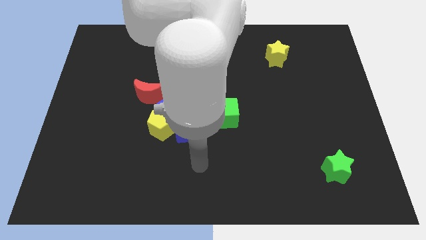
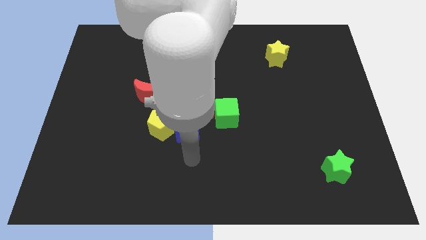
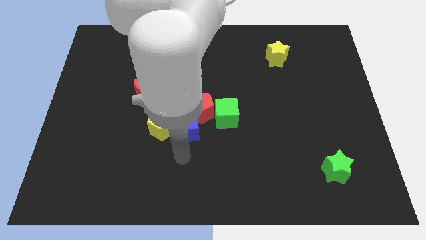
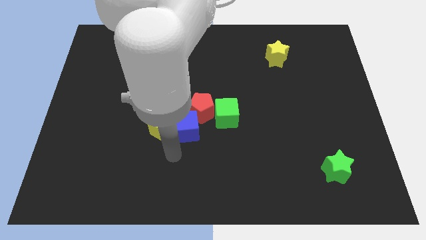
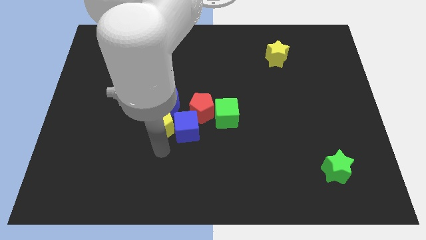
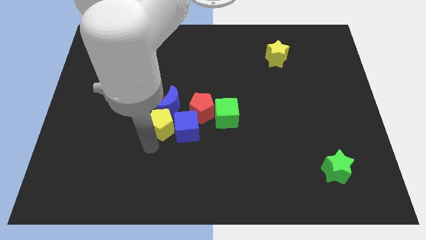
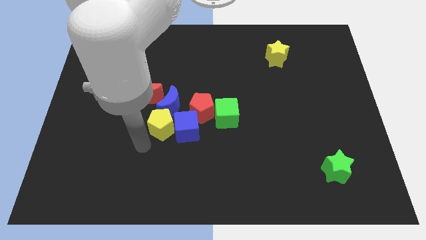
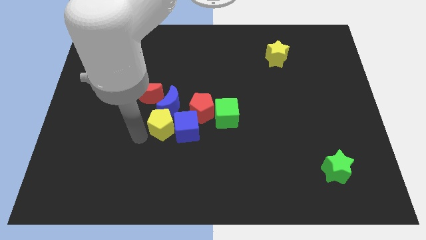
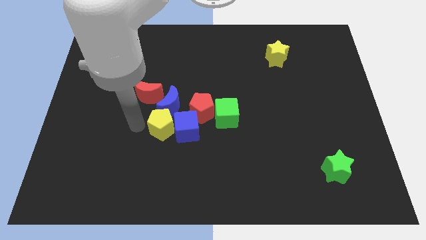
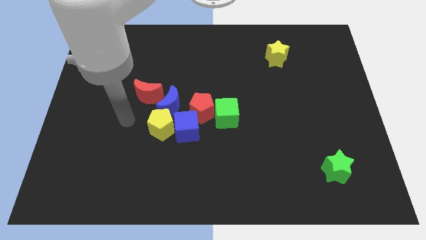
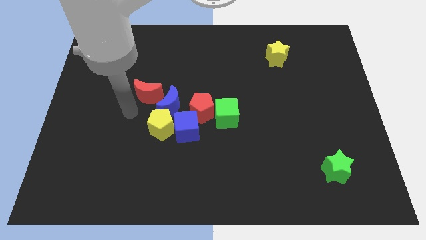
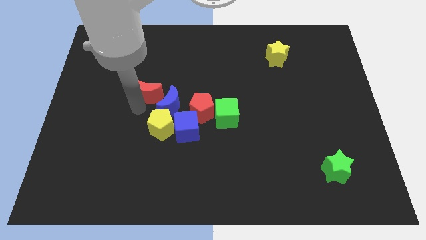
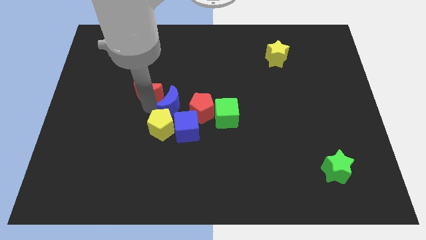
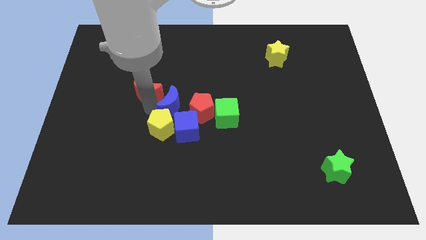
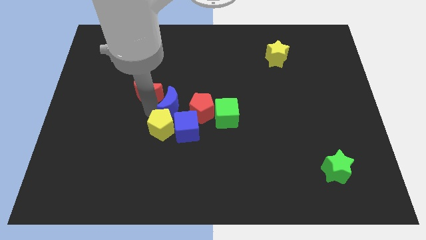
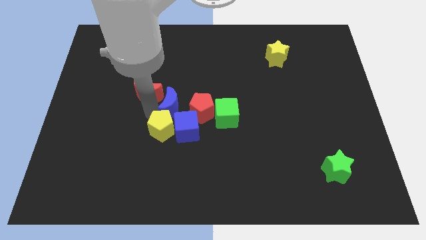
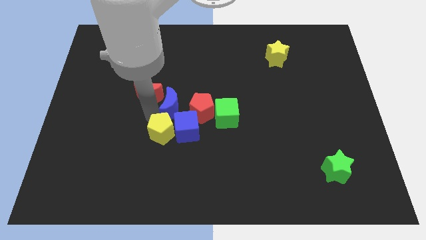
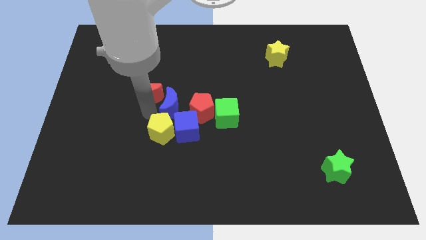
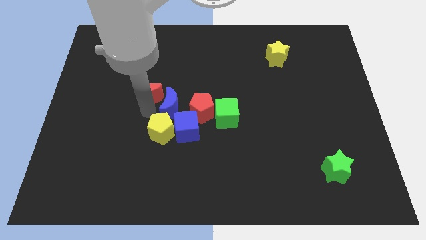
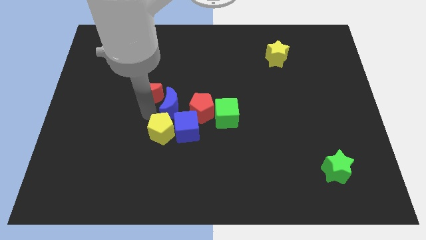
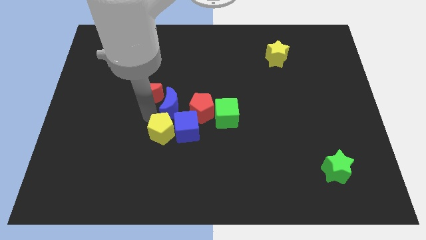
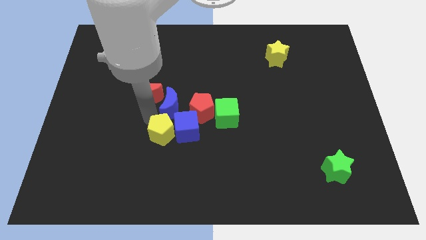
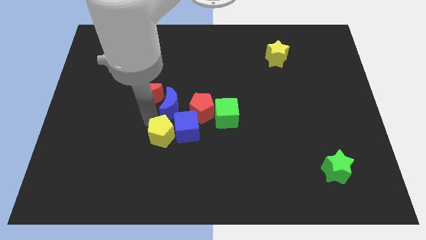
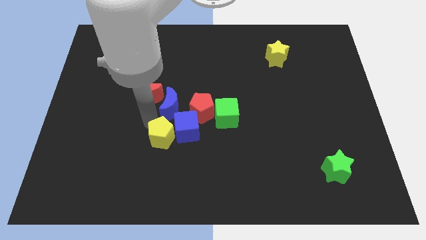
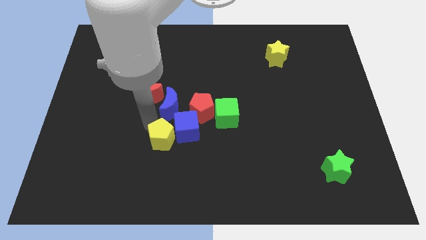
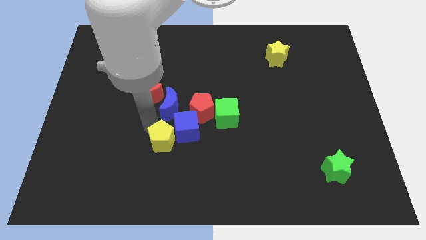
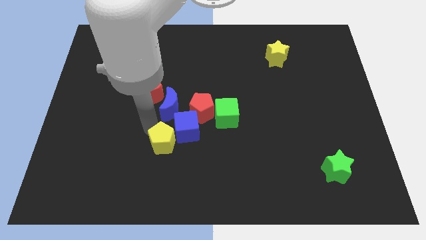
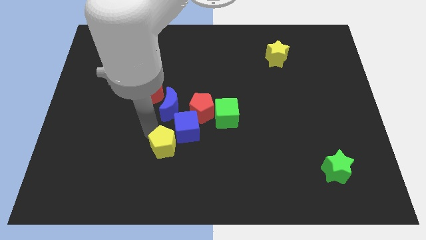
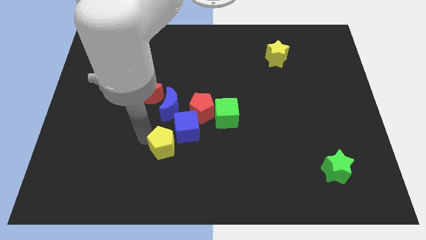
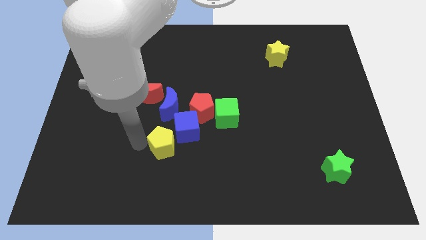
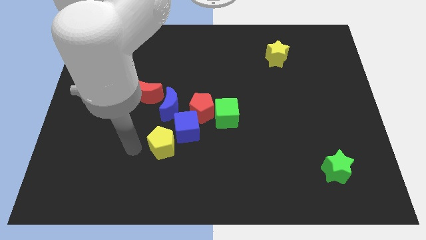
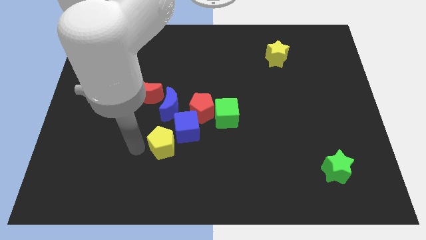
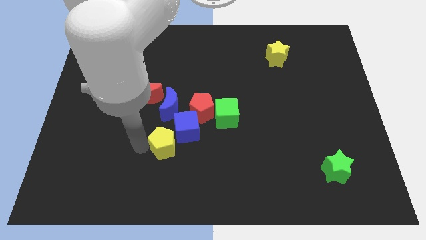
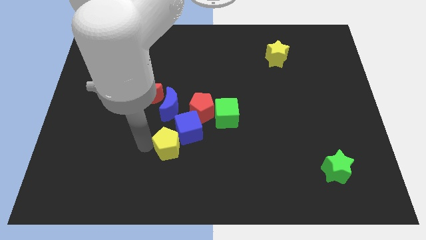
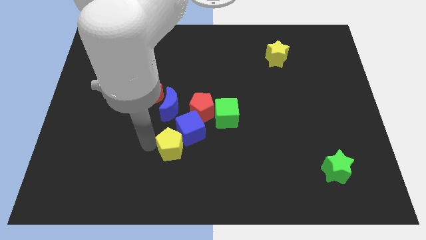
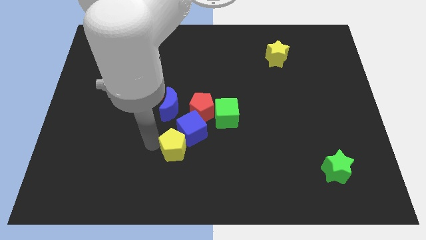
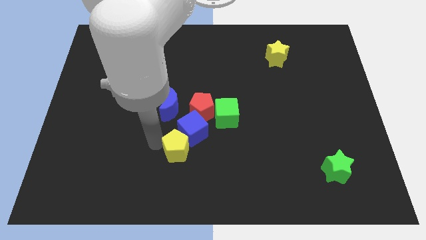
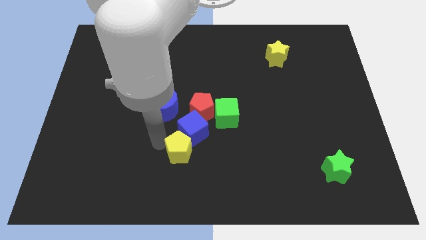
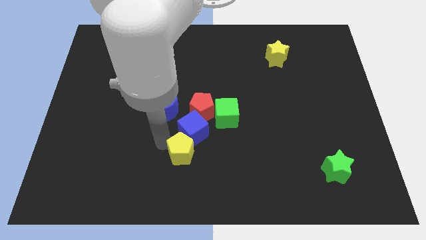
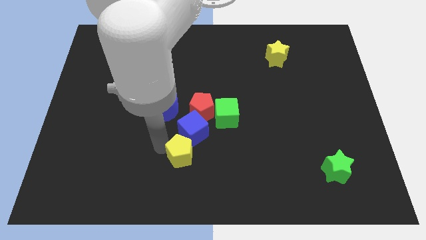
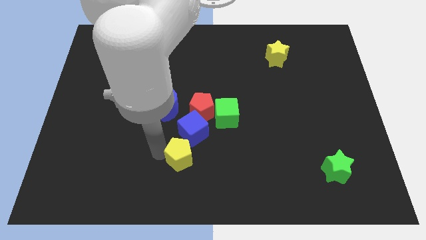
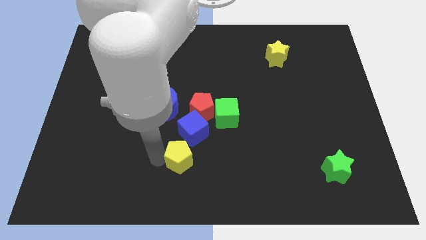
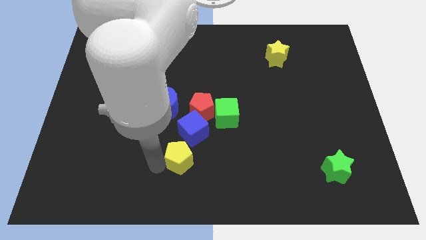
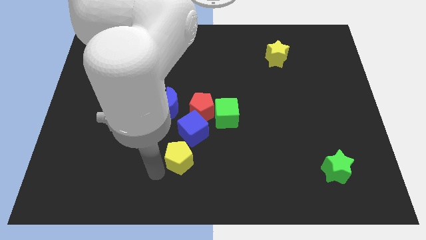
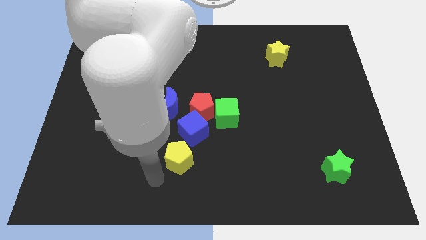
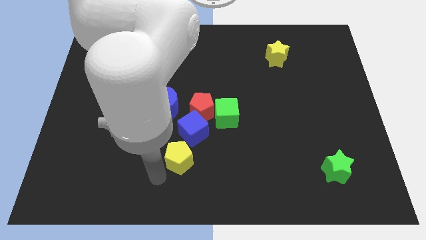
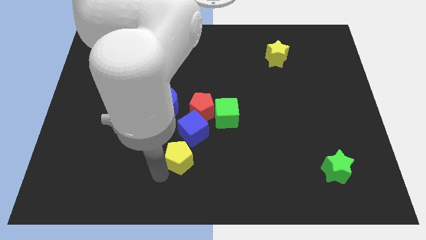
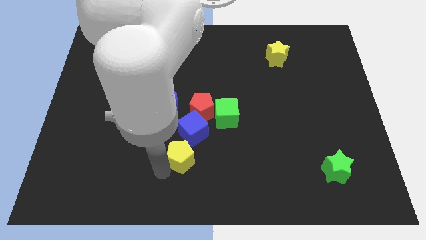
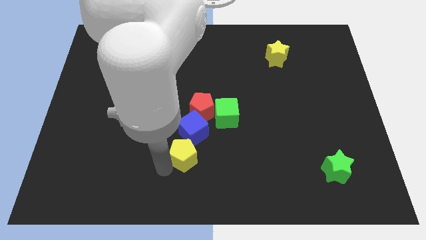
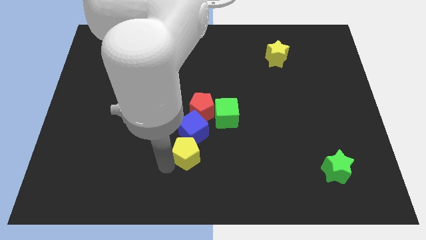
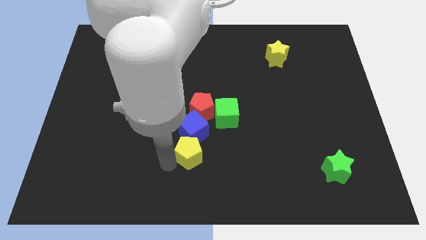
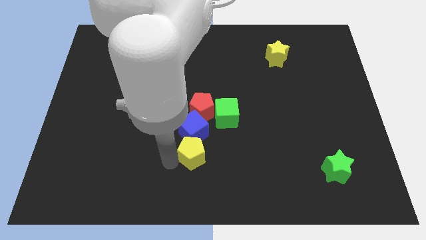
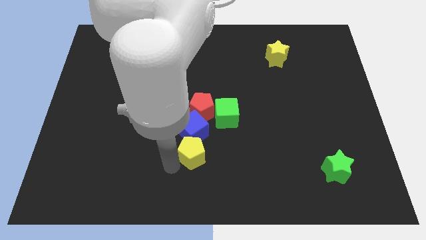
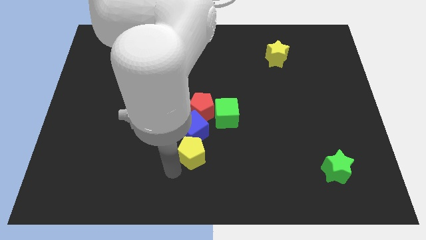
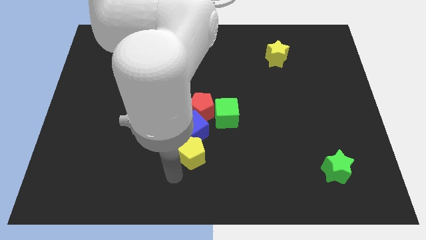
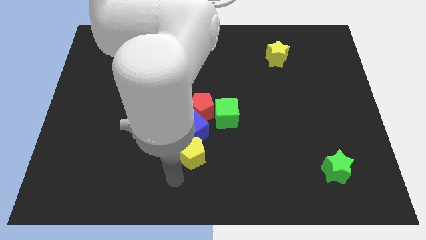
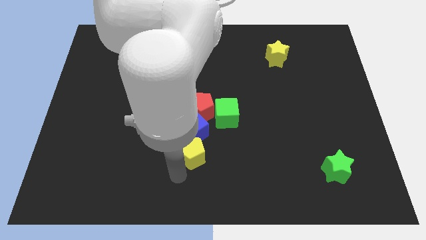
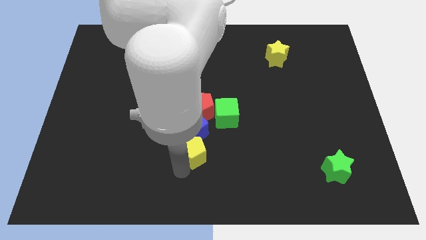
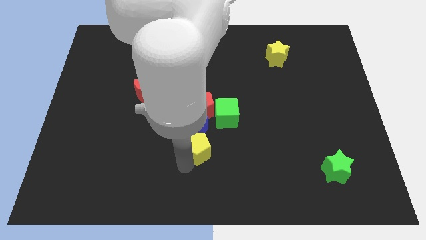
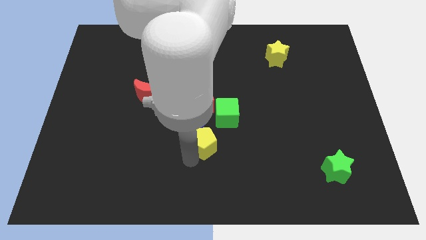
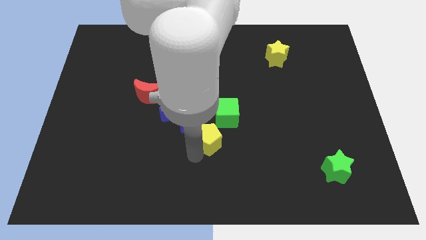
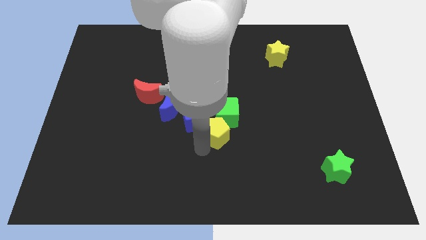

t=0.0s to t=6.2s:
slide the yellow pentagon next to the green cube

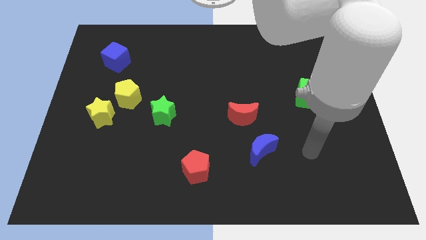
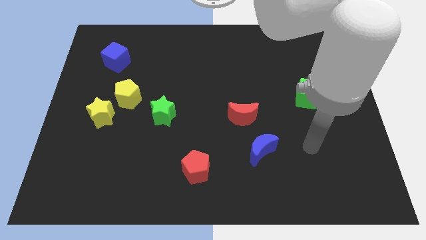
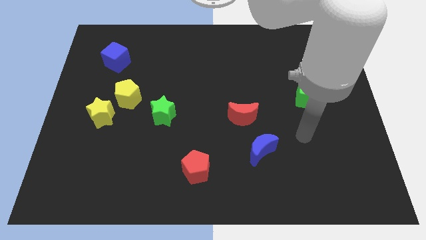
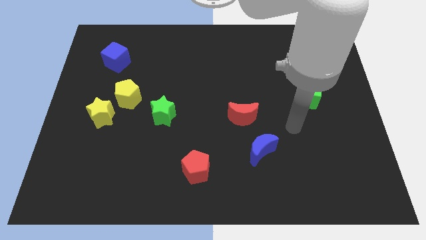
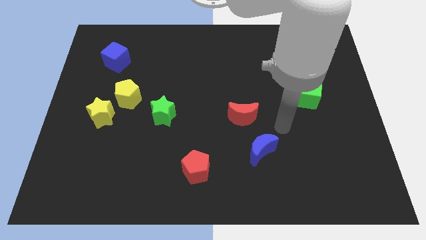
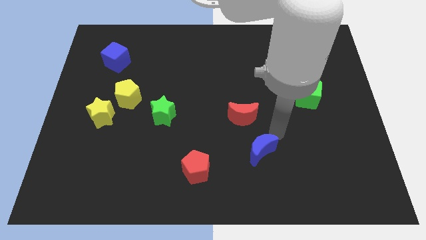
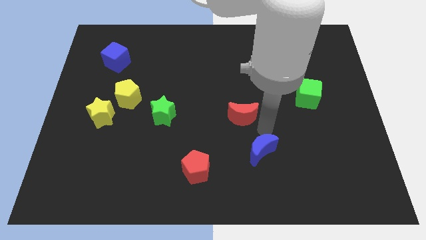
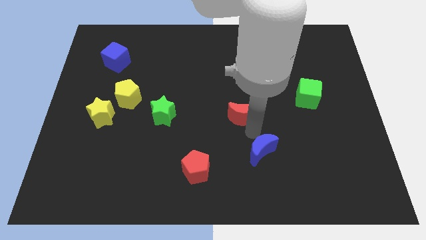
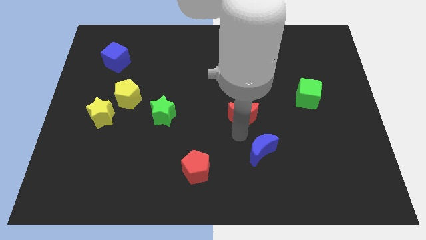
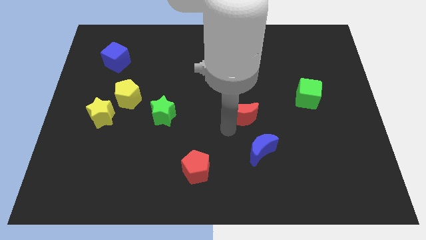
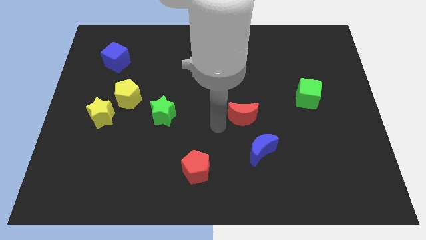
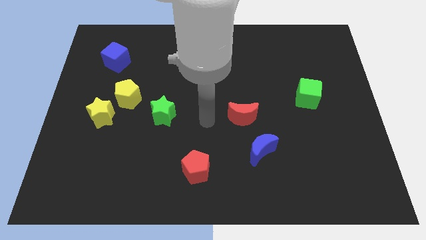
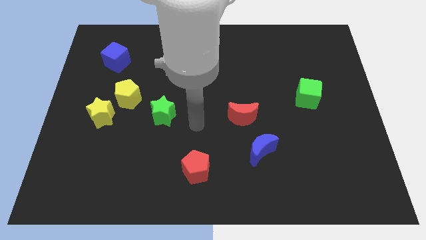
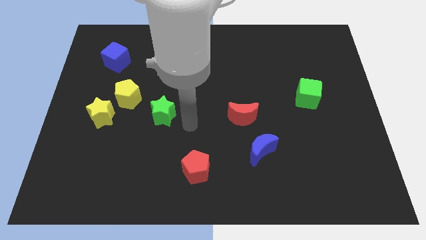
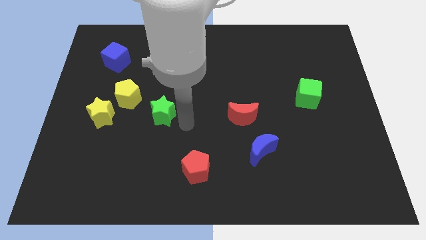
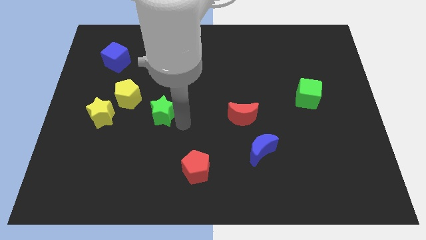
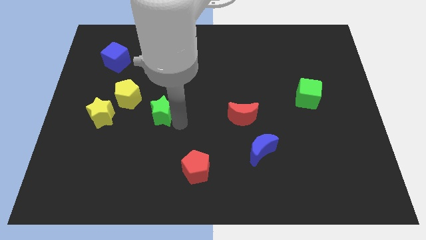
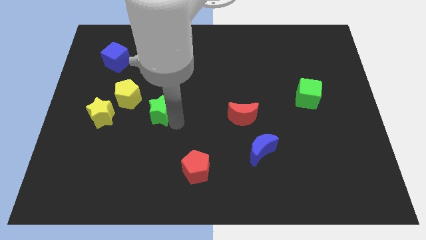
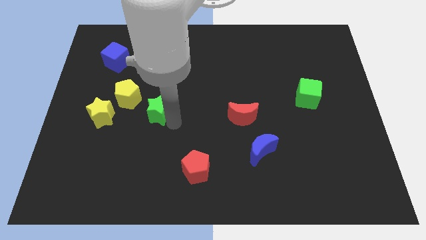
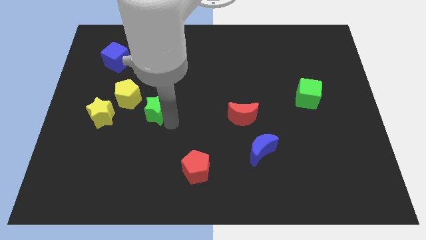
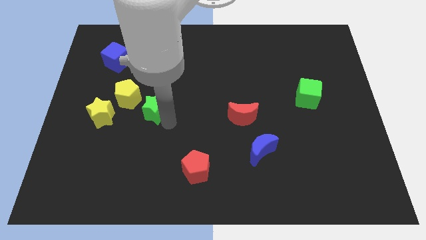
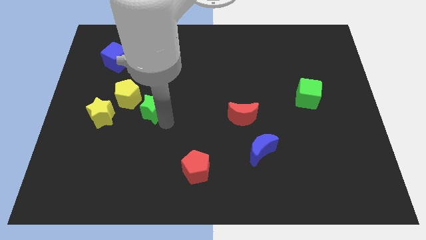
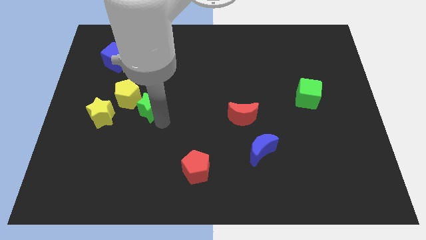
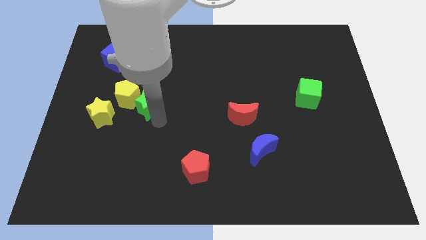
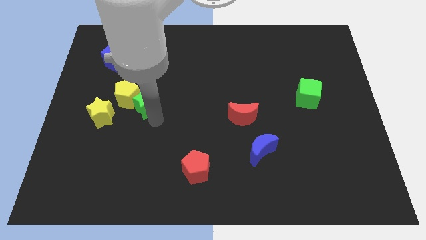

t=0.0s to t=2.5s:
move the green star close to the yellow pentagon
